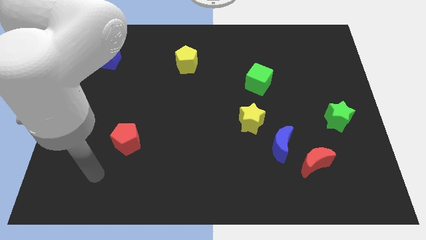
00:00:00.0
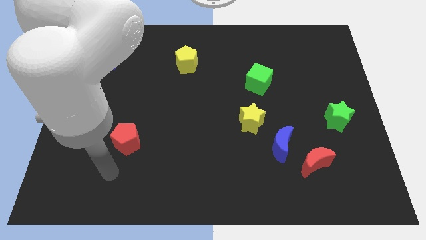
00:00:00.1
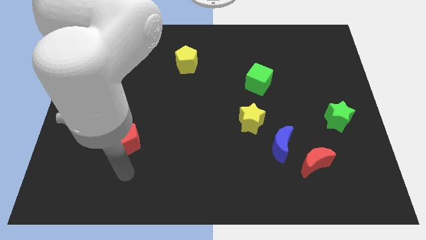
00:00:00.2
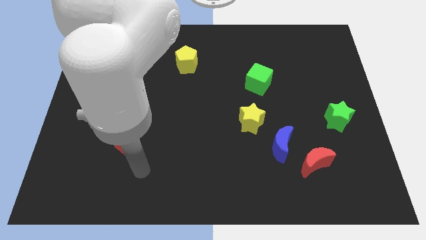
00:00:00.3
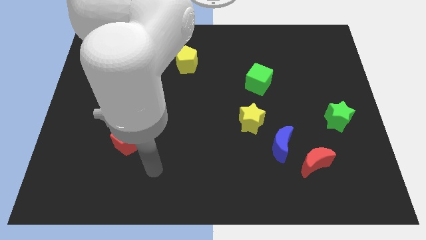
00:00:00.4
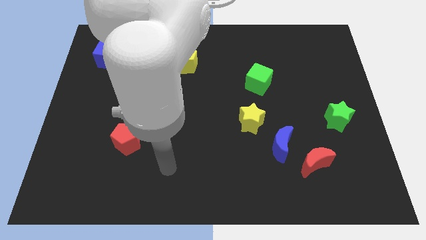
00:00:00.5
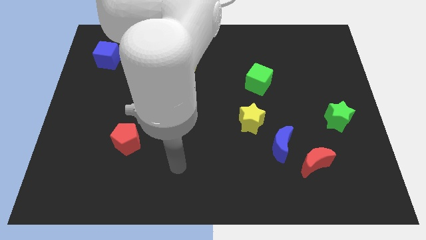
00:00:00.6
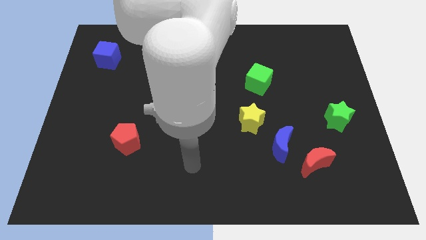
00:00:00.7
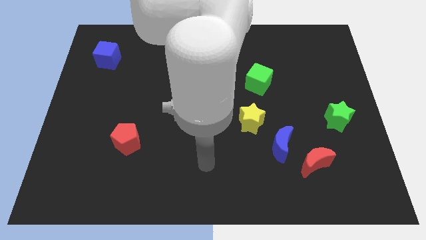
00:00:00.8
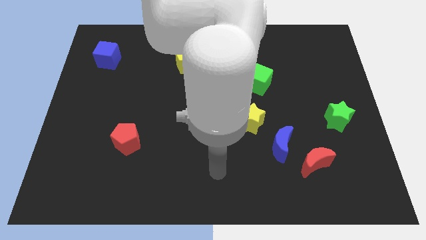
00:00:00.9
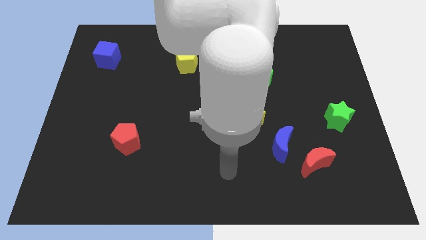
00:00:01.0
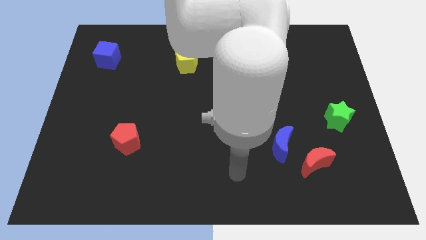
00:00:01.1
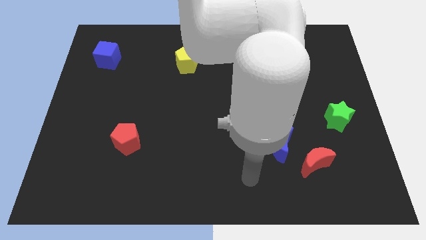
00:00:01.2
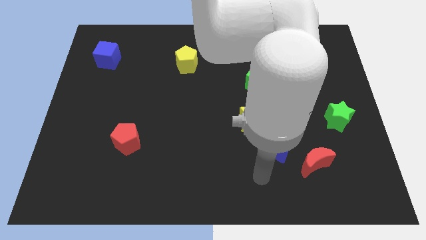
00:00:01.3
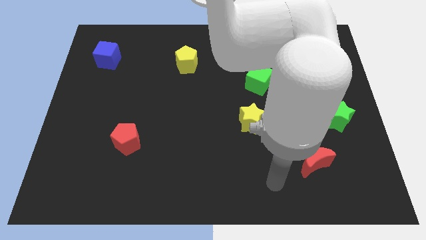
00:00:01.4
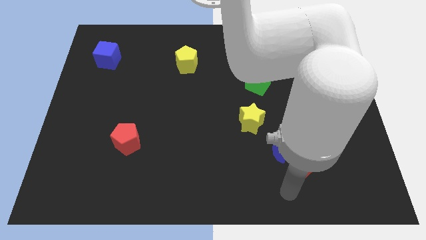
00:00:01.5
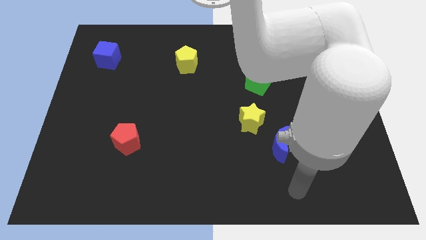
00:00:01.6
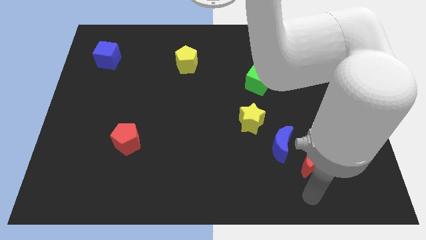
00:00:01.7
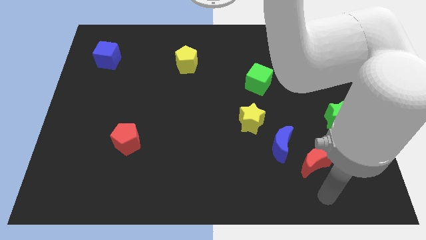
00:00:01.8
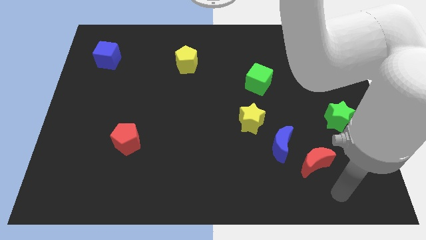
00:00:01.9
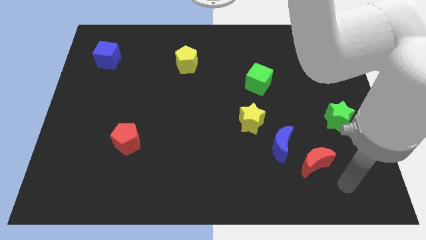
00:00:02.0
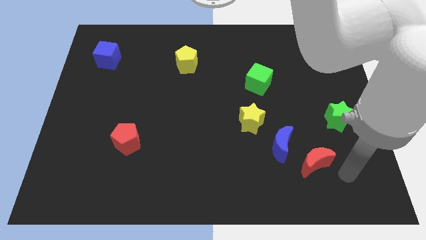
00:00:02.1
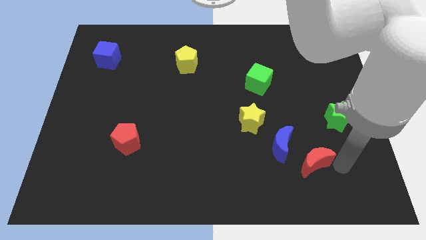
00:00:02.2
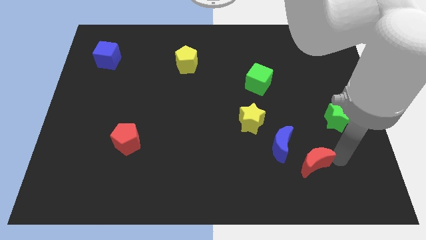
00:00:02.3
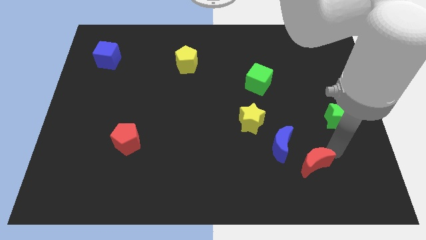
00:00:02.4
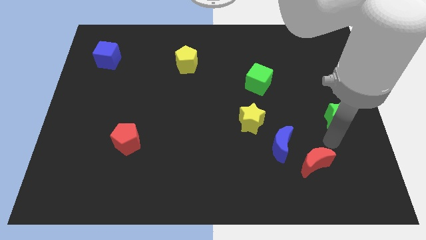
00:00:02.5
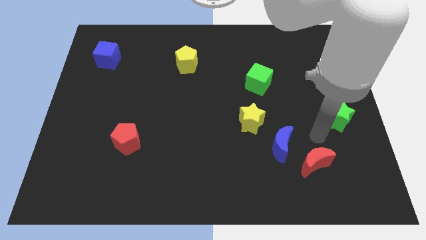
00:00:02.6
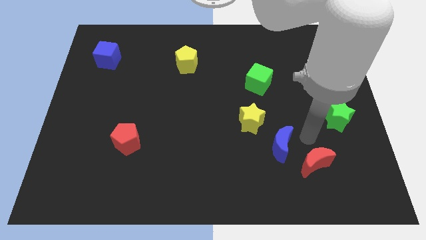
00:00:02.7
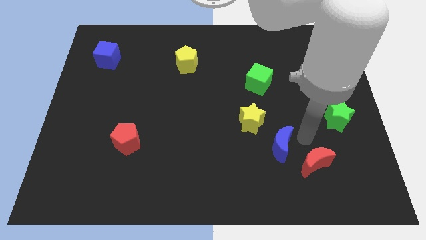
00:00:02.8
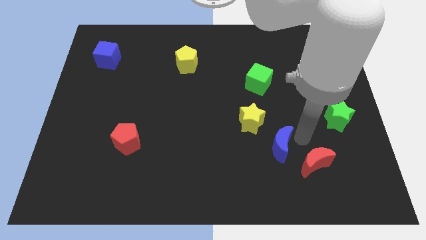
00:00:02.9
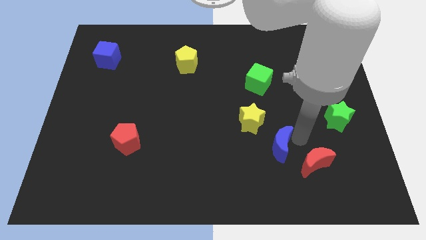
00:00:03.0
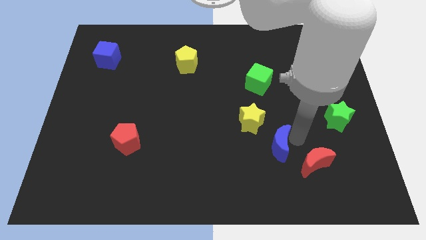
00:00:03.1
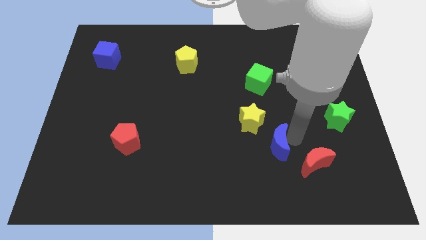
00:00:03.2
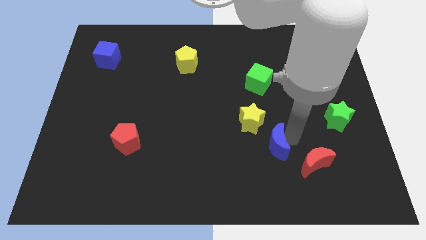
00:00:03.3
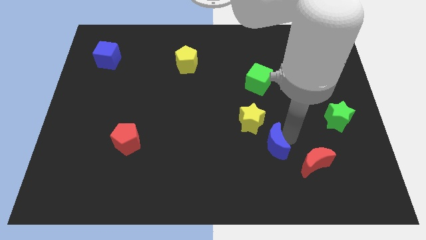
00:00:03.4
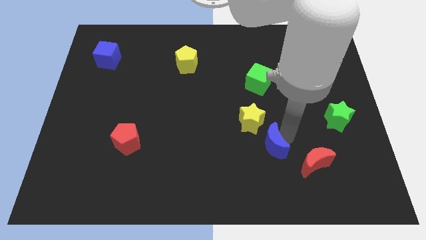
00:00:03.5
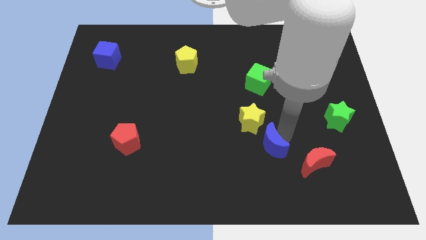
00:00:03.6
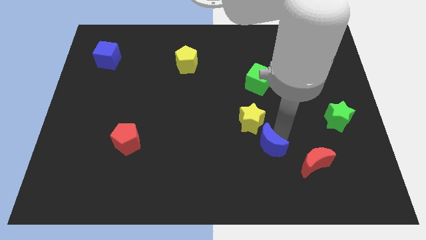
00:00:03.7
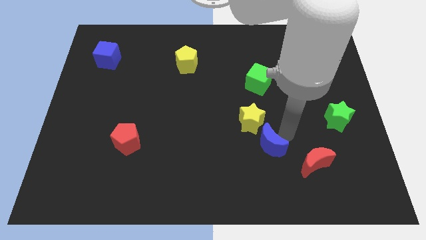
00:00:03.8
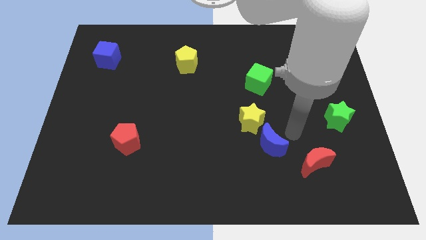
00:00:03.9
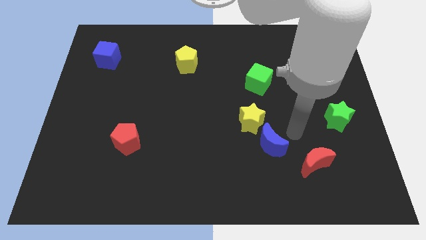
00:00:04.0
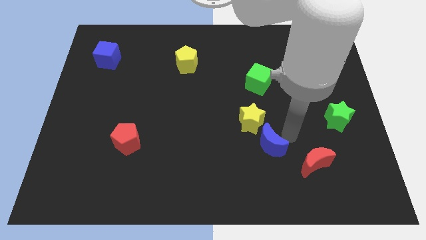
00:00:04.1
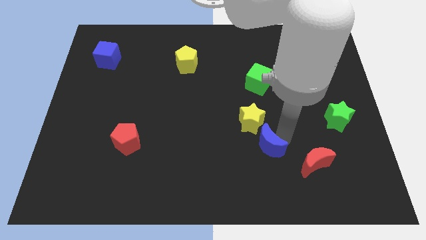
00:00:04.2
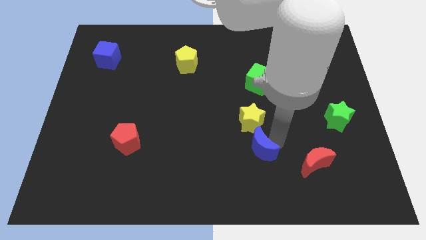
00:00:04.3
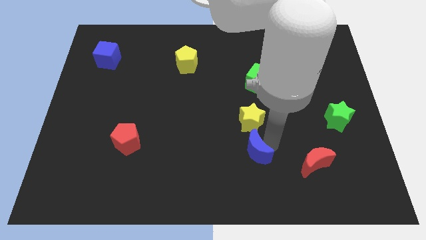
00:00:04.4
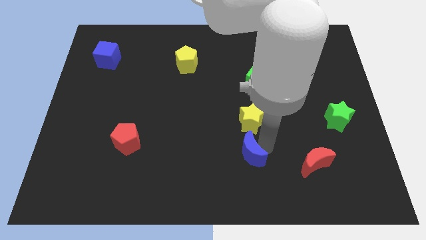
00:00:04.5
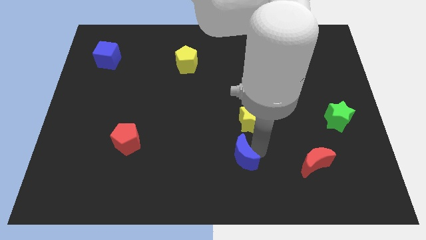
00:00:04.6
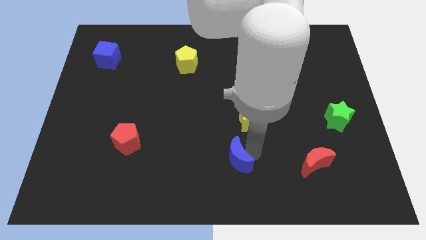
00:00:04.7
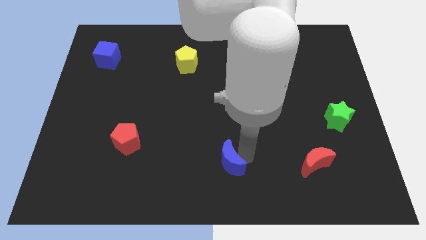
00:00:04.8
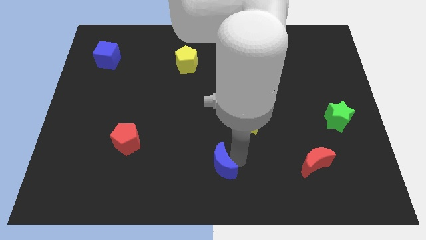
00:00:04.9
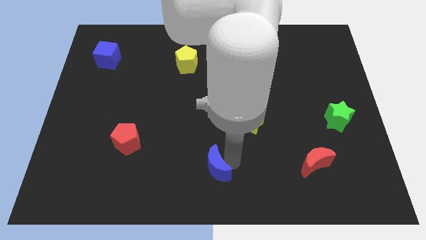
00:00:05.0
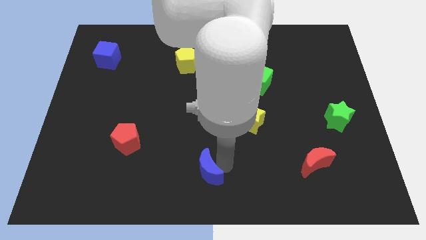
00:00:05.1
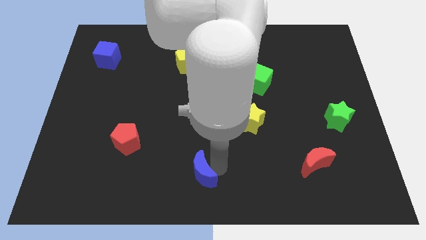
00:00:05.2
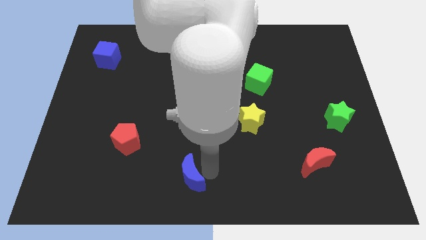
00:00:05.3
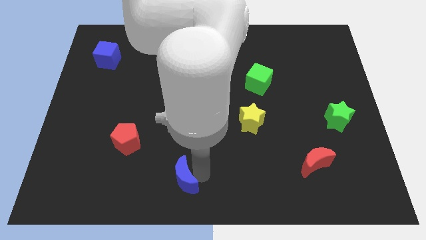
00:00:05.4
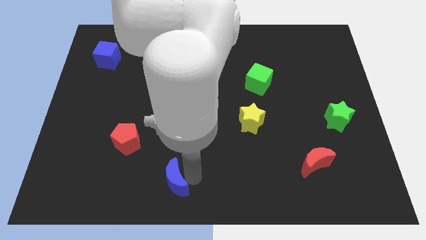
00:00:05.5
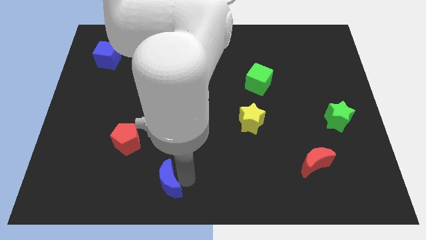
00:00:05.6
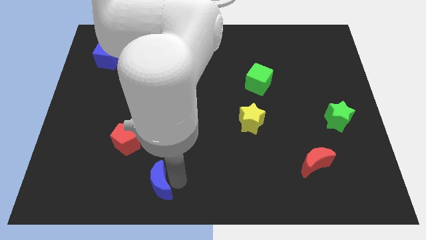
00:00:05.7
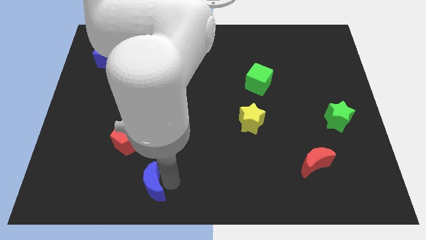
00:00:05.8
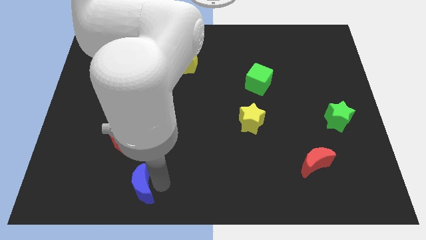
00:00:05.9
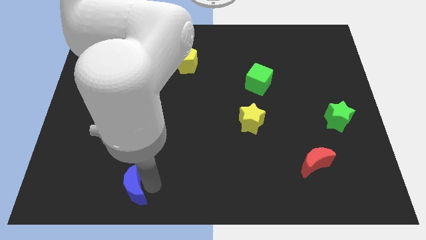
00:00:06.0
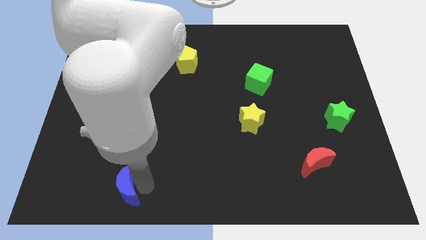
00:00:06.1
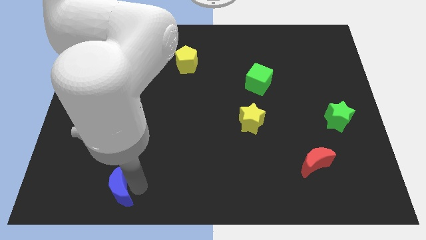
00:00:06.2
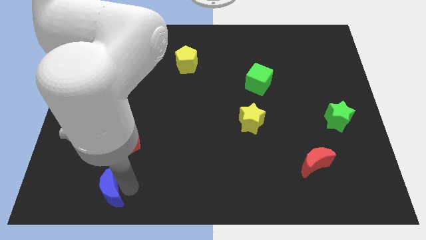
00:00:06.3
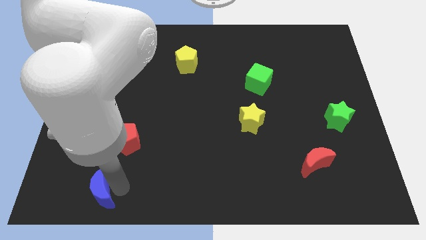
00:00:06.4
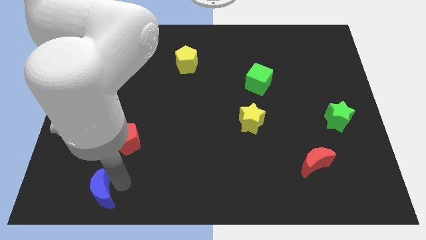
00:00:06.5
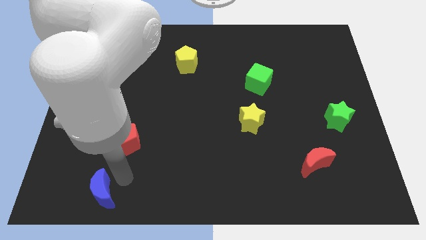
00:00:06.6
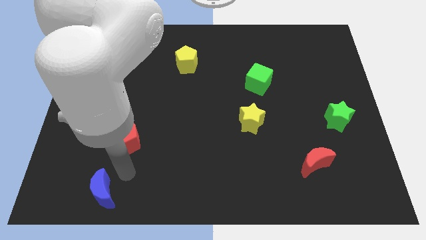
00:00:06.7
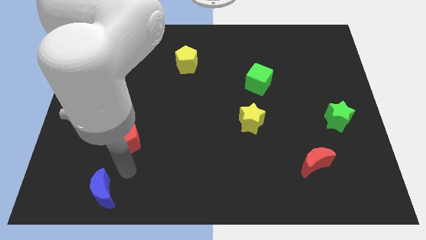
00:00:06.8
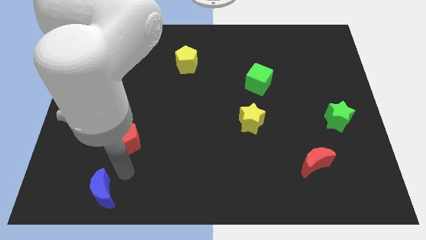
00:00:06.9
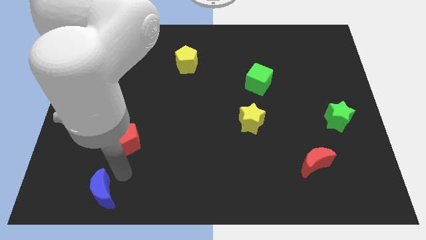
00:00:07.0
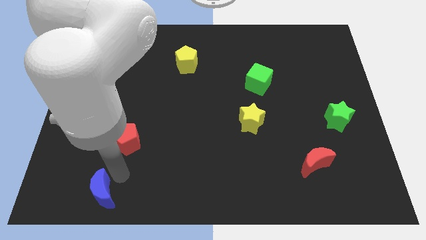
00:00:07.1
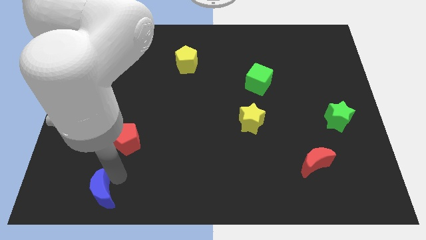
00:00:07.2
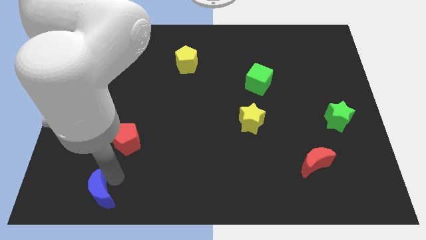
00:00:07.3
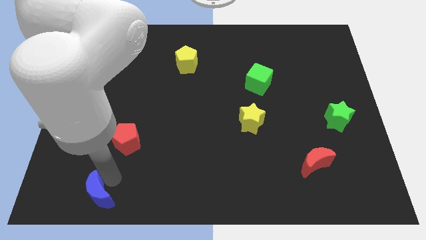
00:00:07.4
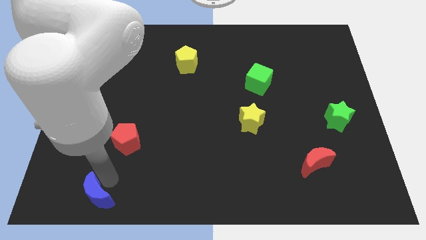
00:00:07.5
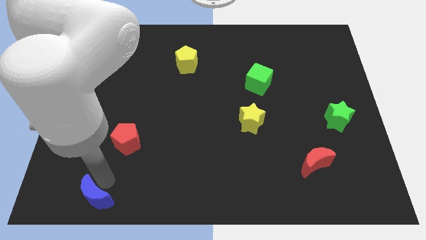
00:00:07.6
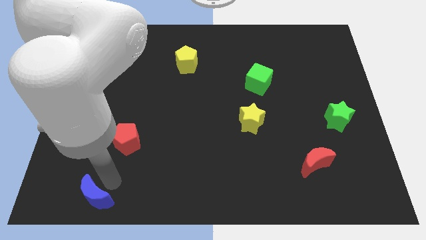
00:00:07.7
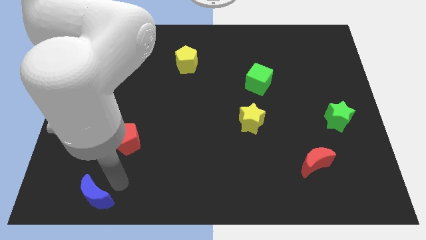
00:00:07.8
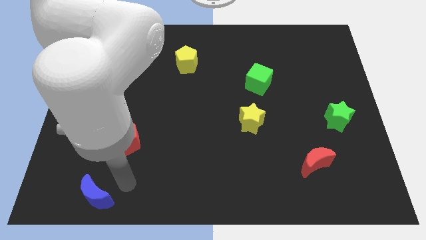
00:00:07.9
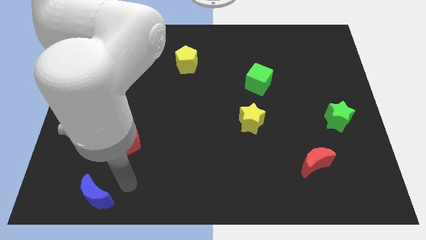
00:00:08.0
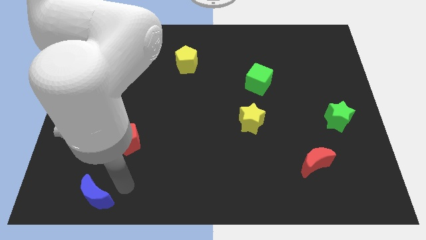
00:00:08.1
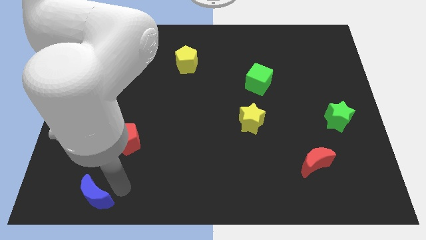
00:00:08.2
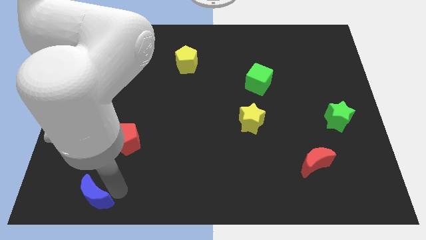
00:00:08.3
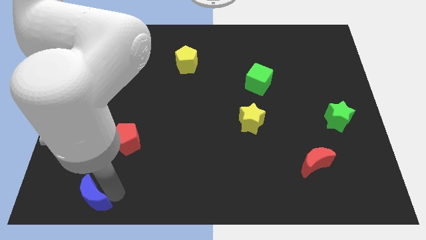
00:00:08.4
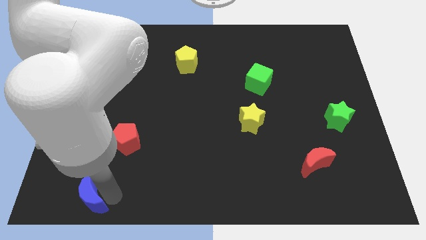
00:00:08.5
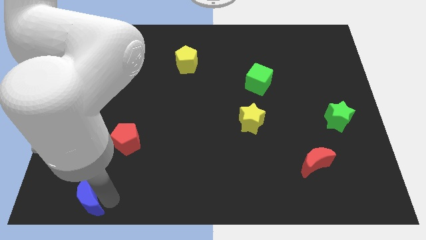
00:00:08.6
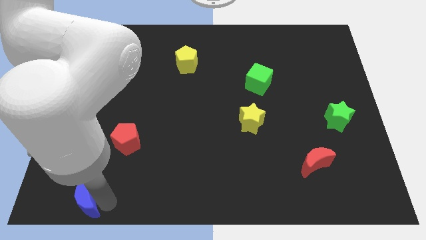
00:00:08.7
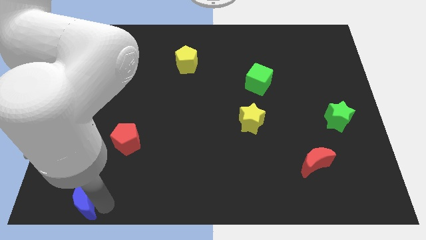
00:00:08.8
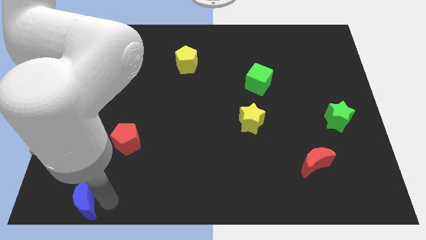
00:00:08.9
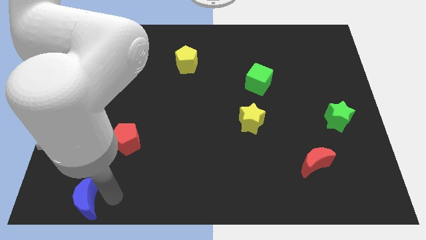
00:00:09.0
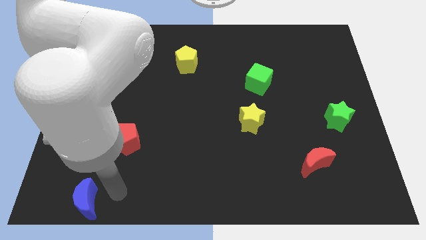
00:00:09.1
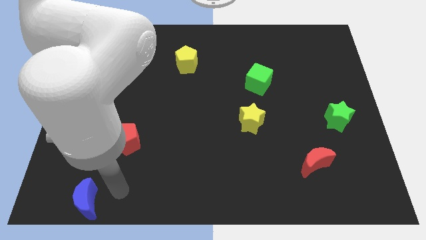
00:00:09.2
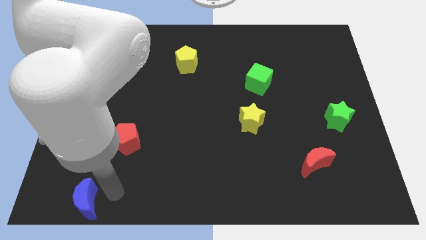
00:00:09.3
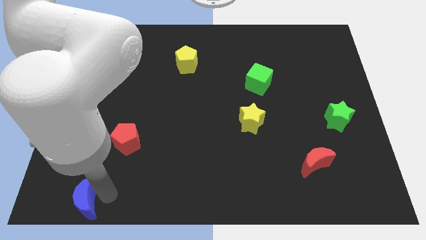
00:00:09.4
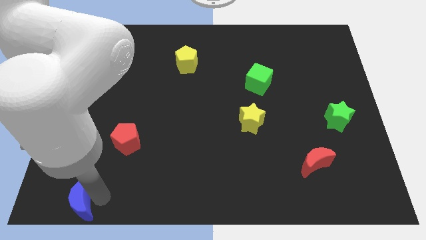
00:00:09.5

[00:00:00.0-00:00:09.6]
slide the blue moon to the bottom left
